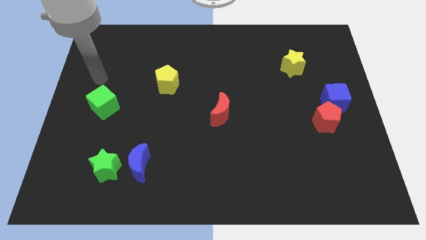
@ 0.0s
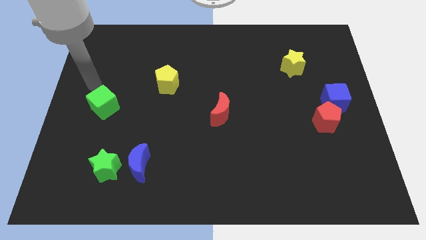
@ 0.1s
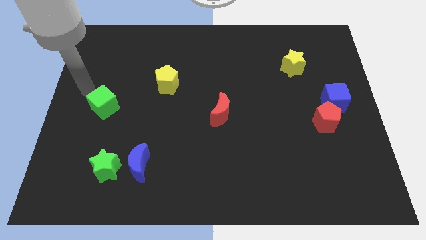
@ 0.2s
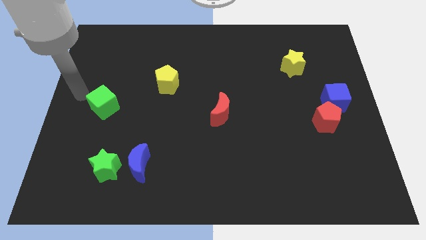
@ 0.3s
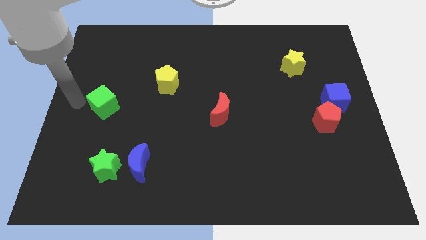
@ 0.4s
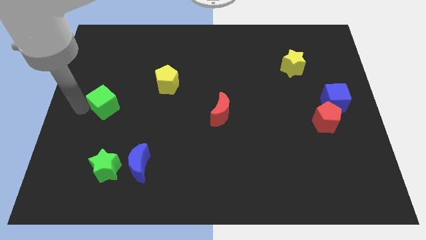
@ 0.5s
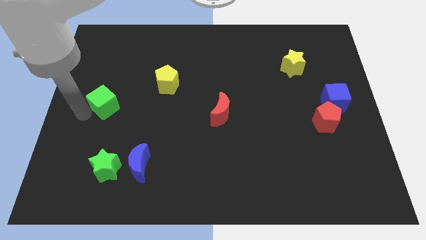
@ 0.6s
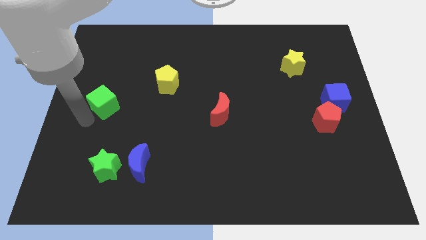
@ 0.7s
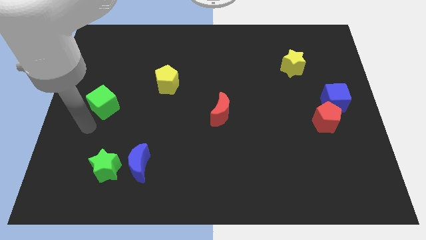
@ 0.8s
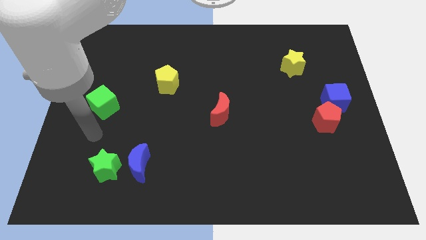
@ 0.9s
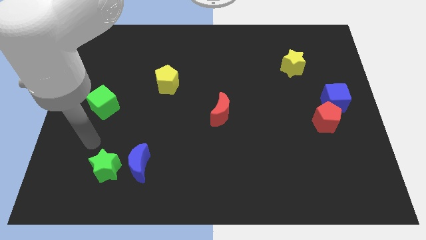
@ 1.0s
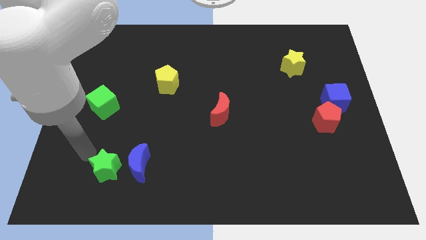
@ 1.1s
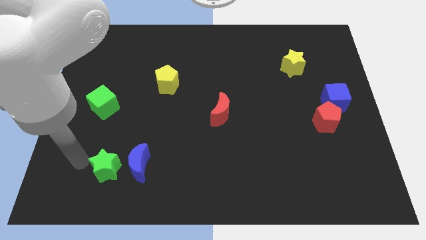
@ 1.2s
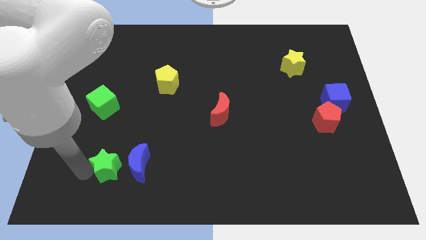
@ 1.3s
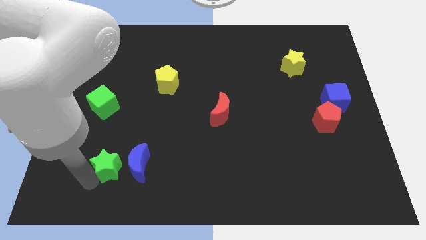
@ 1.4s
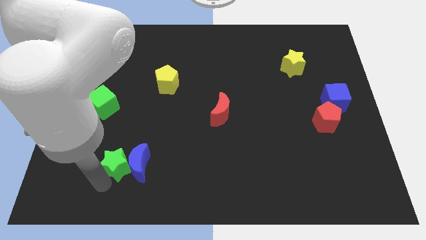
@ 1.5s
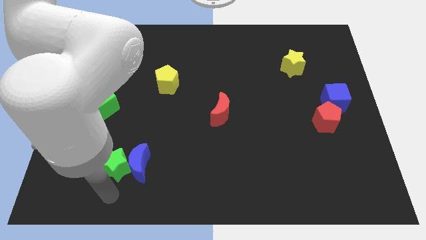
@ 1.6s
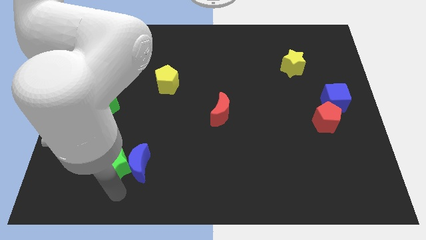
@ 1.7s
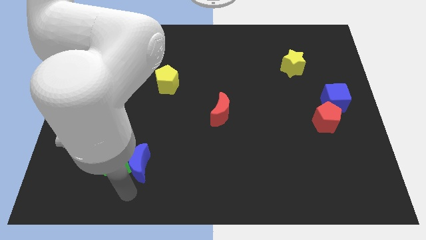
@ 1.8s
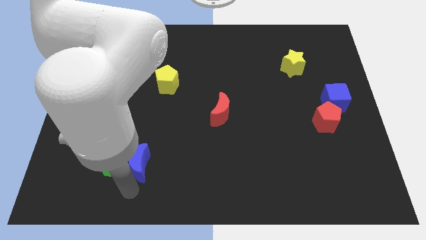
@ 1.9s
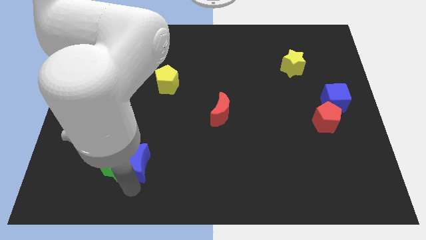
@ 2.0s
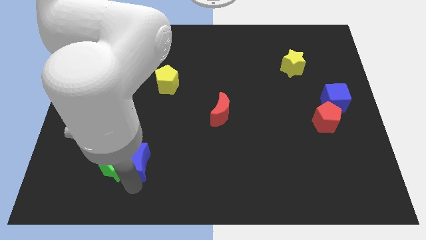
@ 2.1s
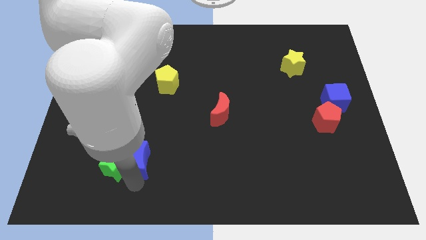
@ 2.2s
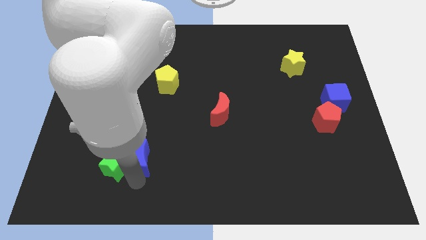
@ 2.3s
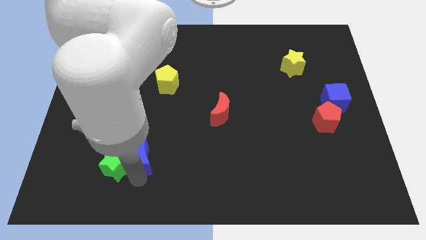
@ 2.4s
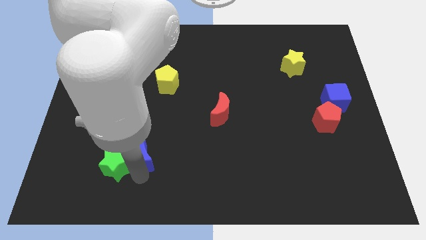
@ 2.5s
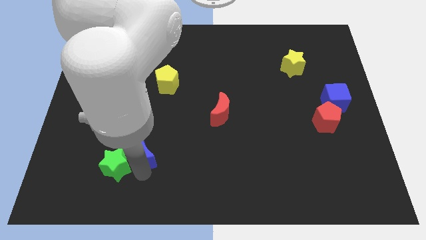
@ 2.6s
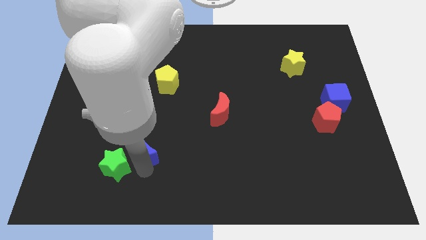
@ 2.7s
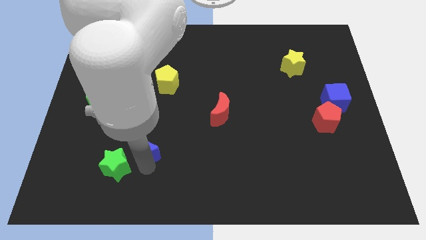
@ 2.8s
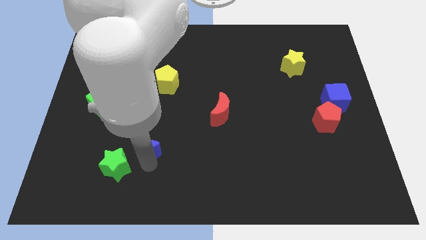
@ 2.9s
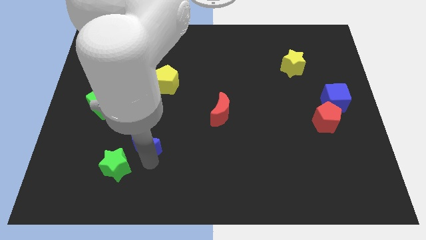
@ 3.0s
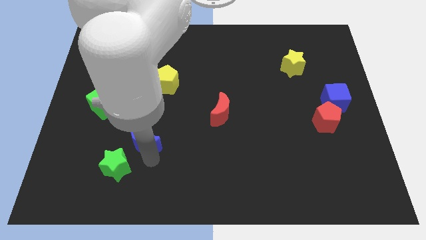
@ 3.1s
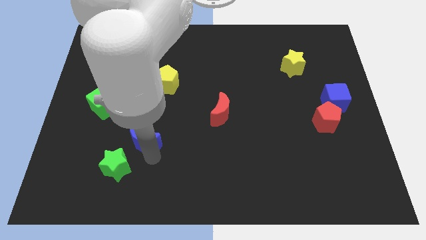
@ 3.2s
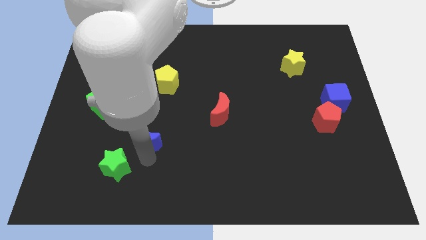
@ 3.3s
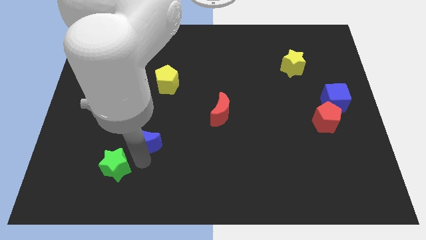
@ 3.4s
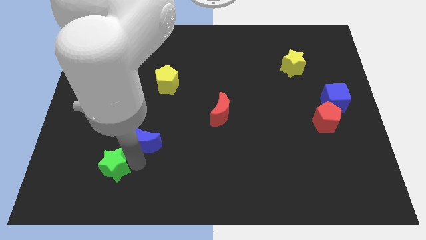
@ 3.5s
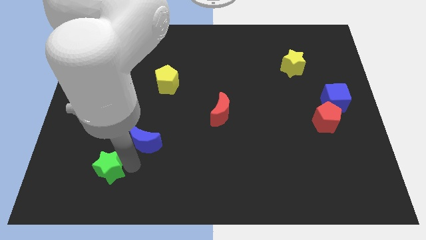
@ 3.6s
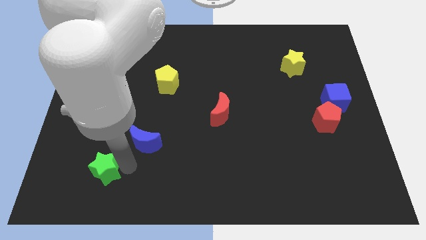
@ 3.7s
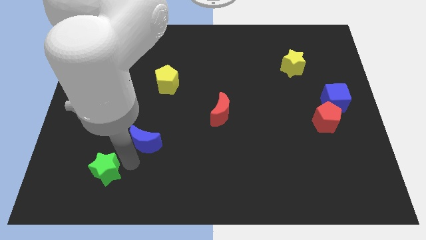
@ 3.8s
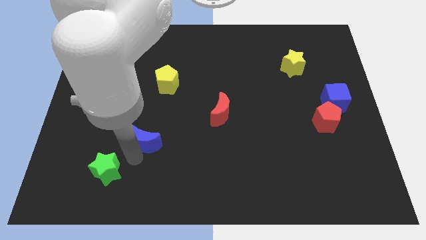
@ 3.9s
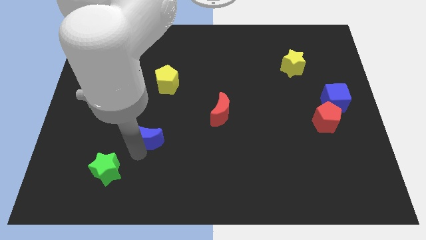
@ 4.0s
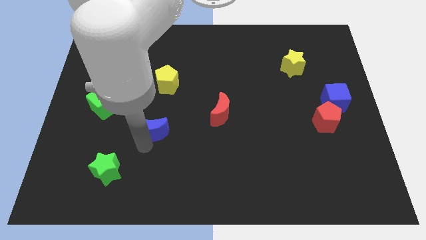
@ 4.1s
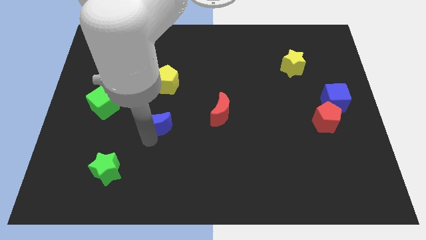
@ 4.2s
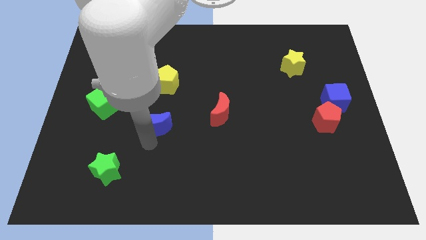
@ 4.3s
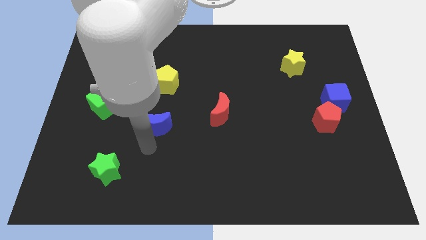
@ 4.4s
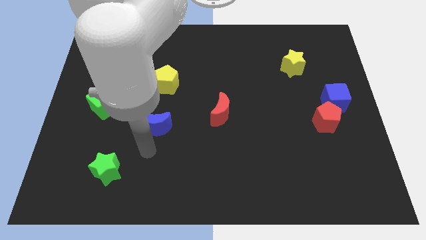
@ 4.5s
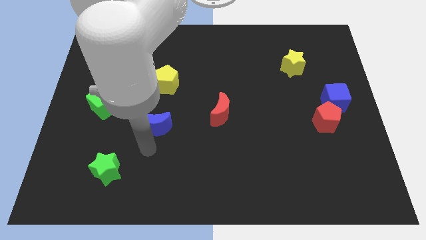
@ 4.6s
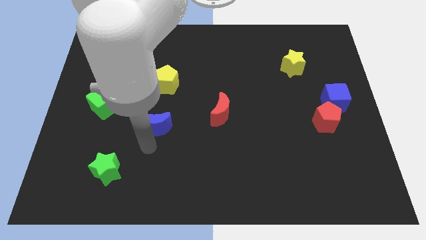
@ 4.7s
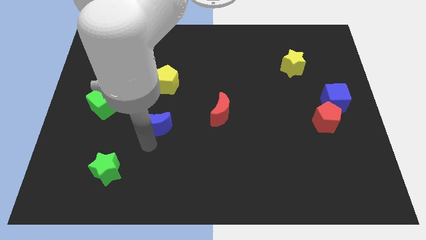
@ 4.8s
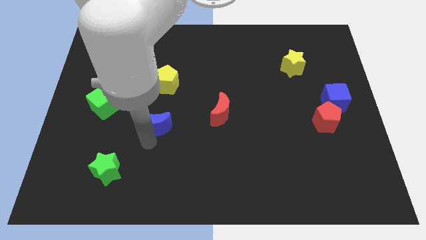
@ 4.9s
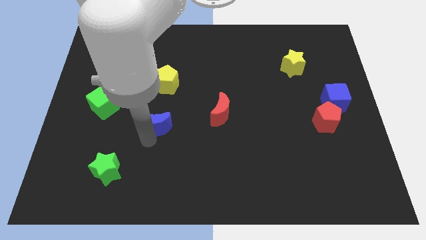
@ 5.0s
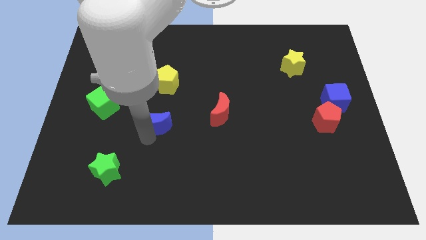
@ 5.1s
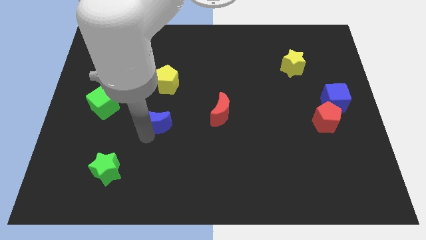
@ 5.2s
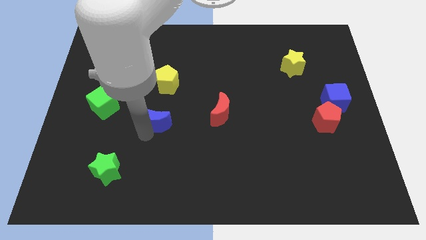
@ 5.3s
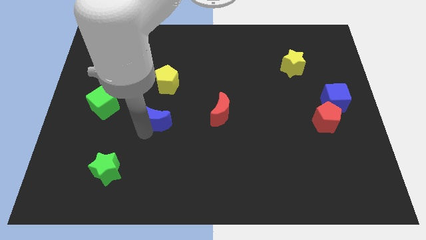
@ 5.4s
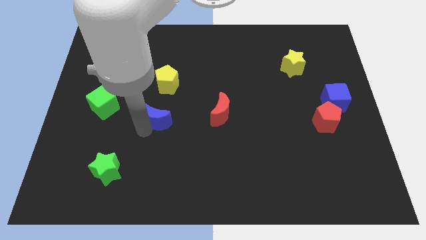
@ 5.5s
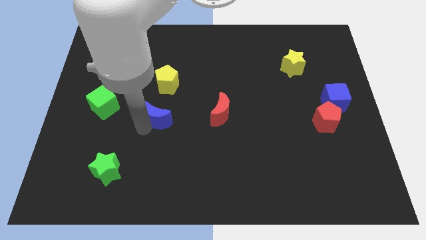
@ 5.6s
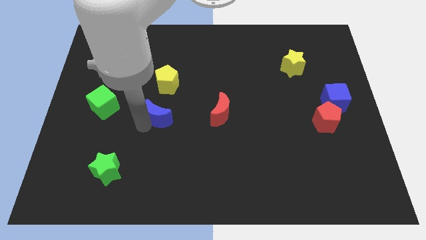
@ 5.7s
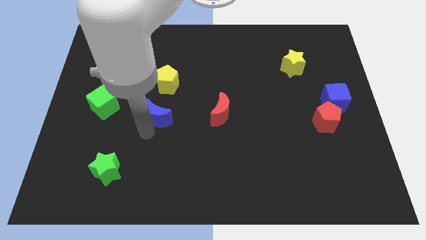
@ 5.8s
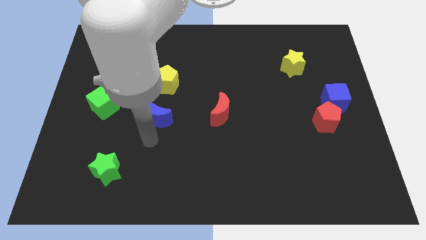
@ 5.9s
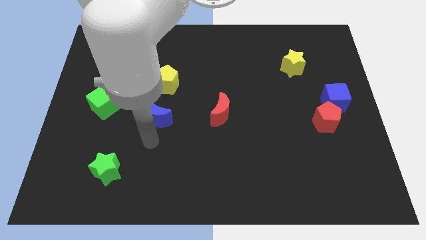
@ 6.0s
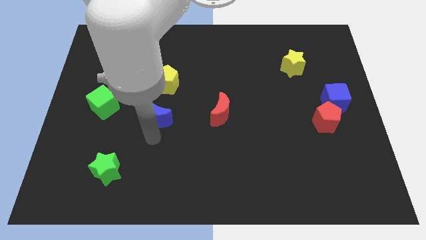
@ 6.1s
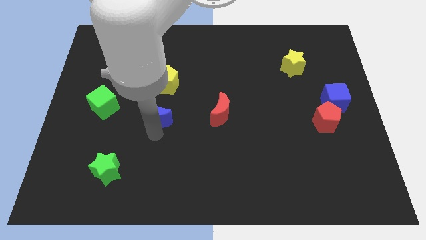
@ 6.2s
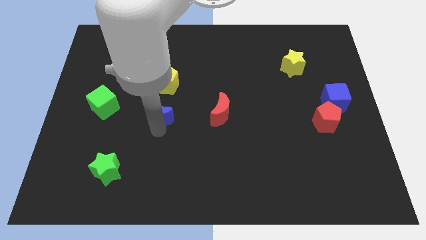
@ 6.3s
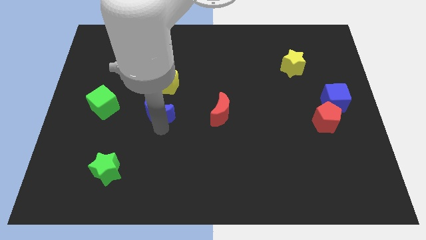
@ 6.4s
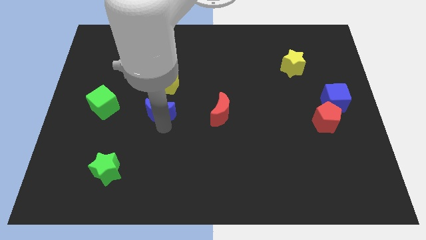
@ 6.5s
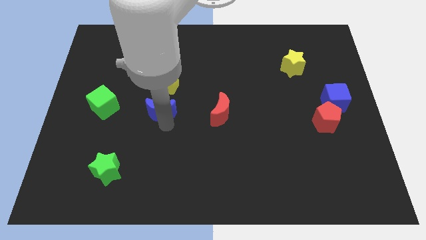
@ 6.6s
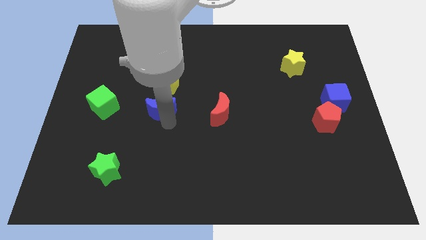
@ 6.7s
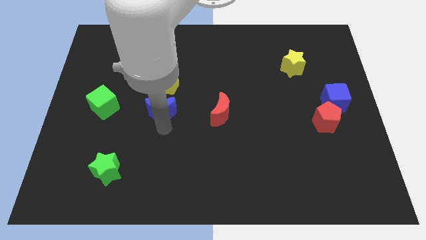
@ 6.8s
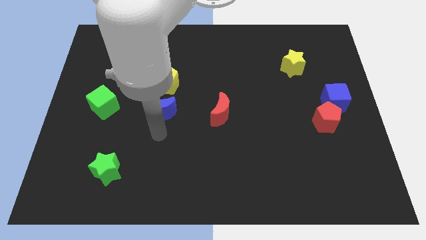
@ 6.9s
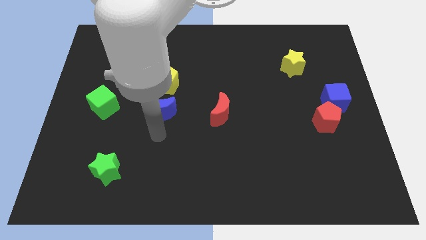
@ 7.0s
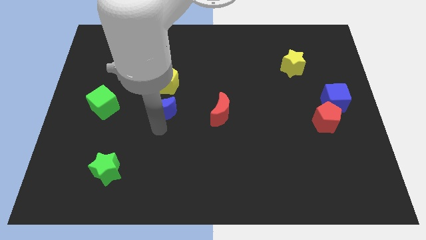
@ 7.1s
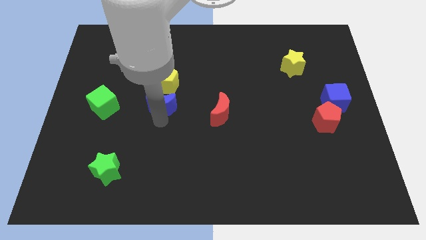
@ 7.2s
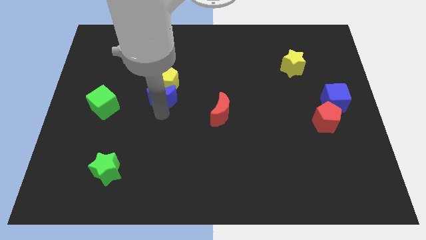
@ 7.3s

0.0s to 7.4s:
put the blue moon to the yellow pentagon

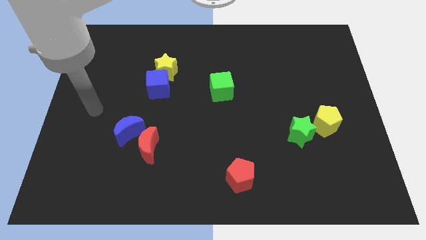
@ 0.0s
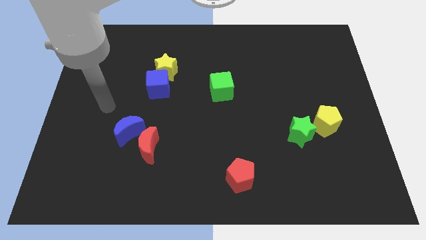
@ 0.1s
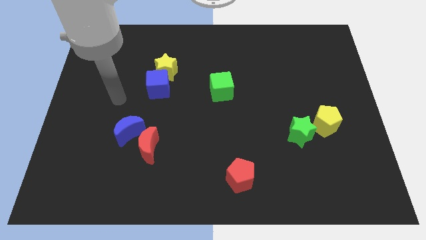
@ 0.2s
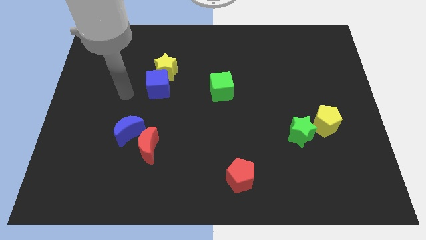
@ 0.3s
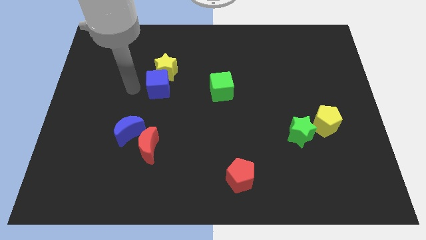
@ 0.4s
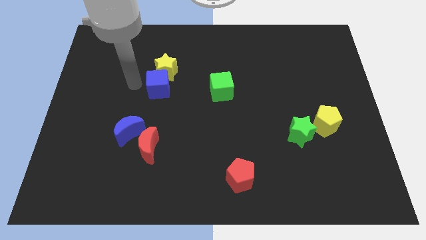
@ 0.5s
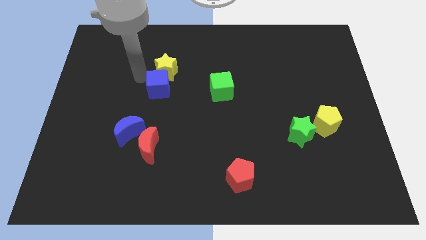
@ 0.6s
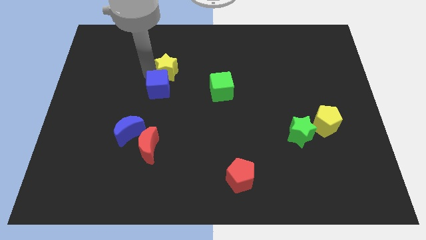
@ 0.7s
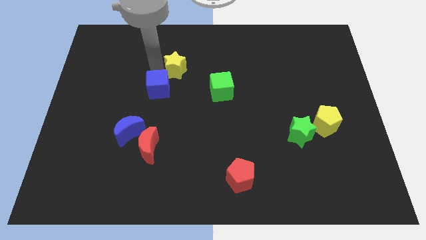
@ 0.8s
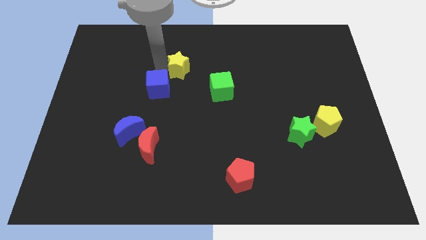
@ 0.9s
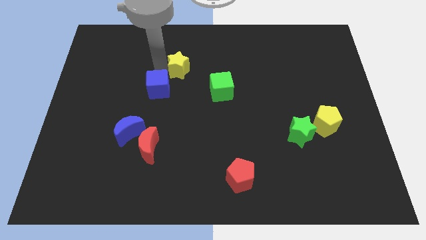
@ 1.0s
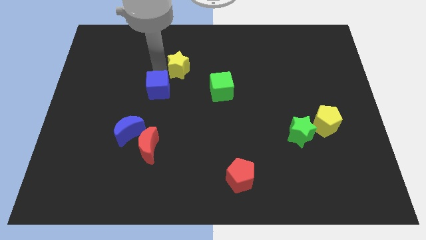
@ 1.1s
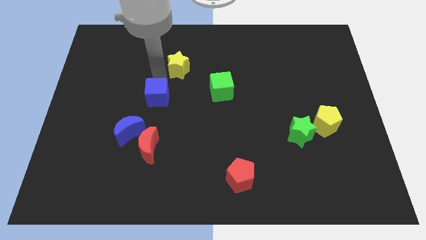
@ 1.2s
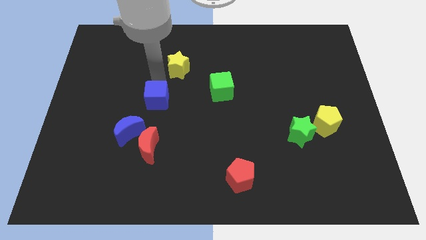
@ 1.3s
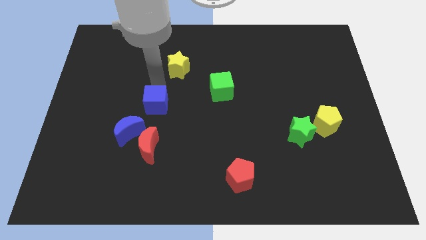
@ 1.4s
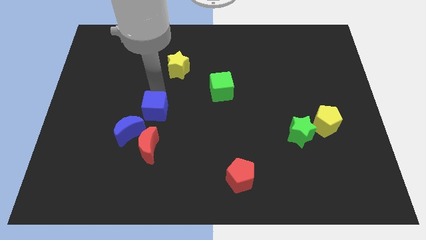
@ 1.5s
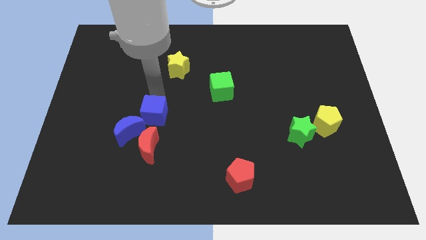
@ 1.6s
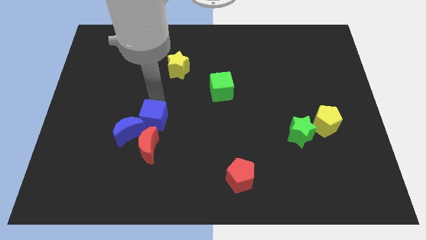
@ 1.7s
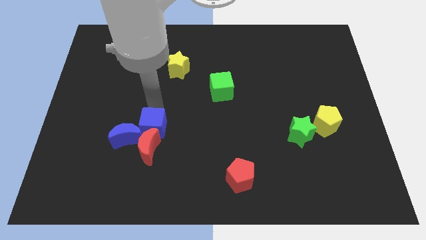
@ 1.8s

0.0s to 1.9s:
slide the blue cube next to the red moon
